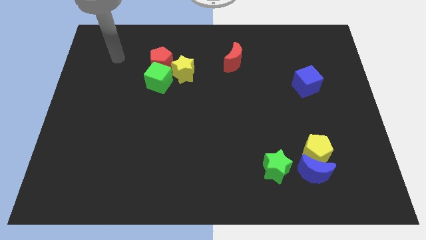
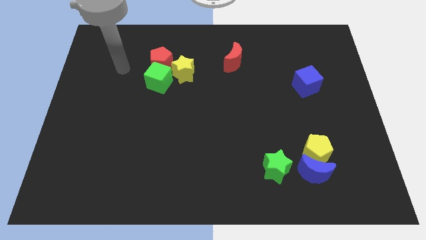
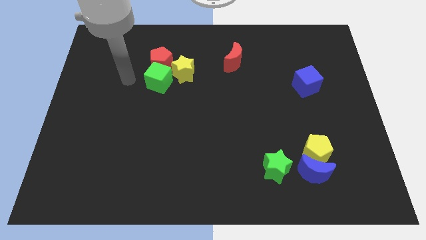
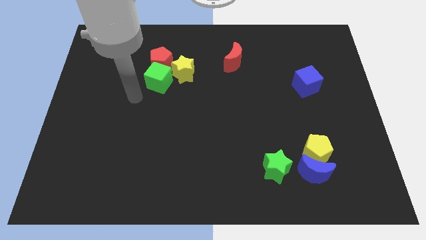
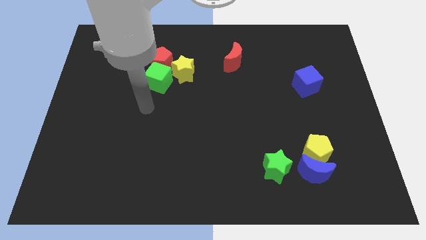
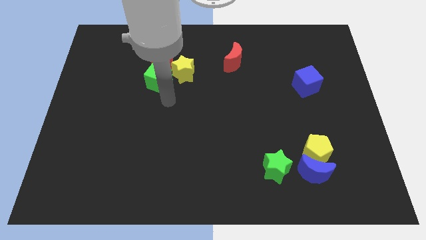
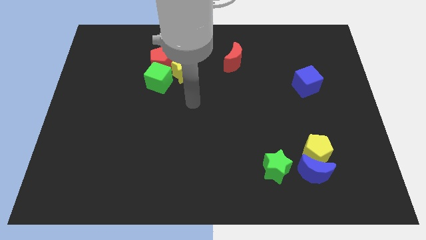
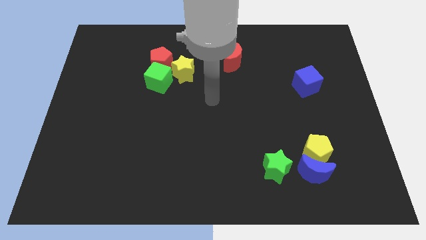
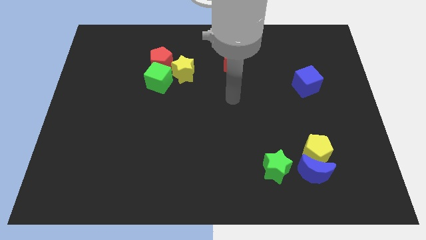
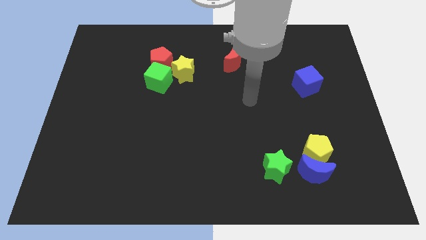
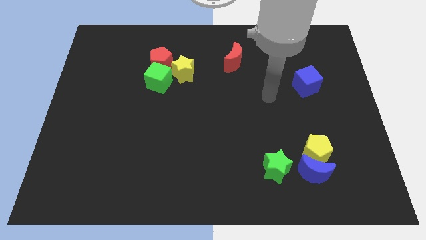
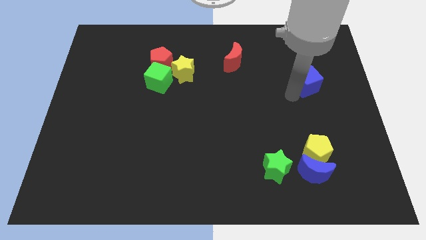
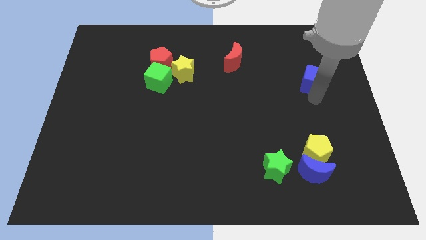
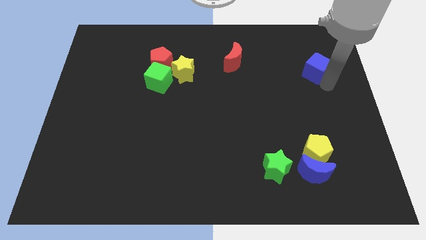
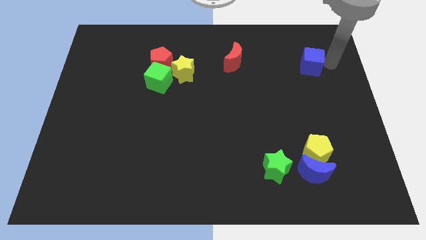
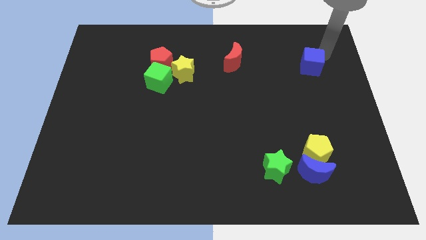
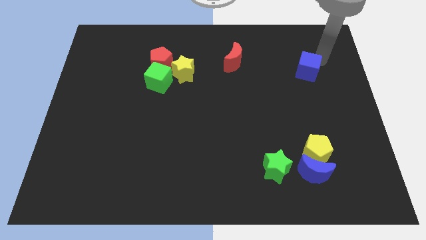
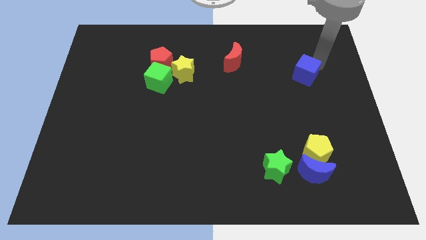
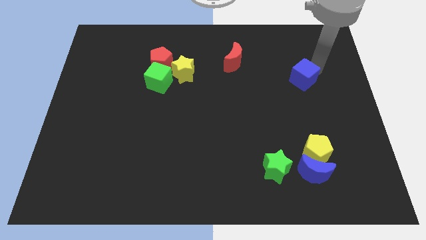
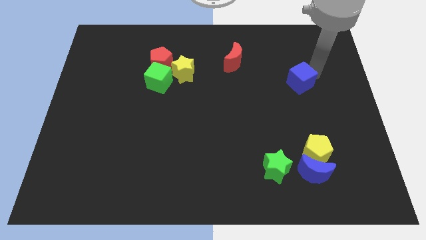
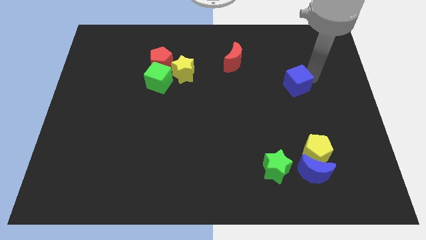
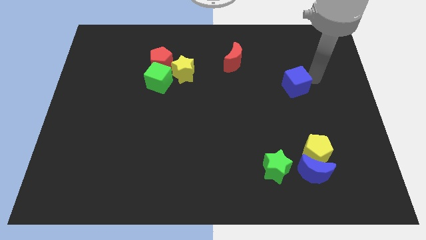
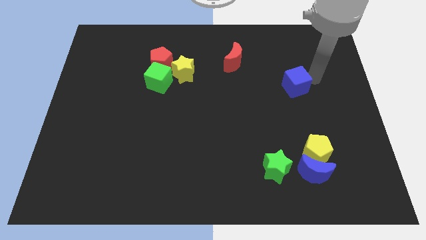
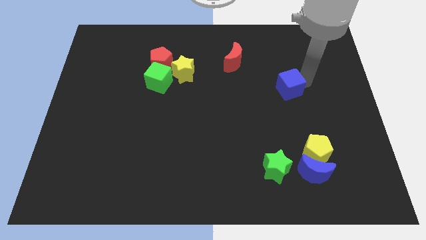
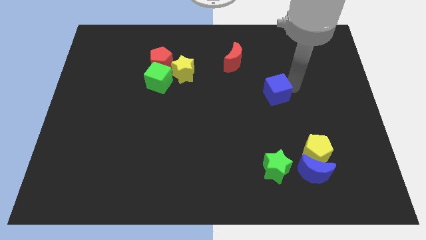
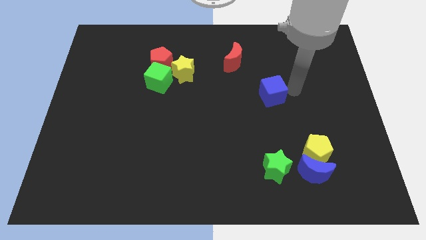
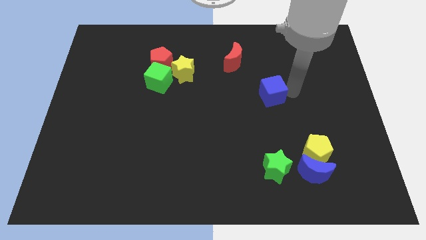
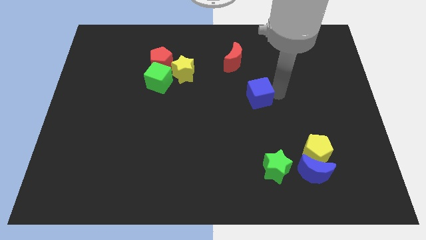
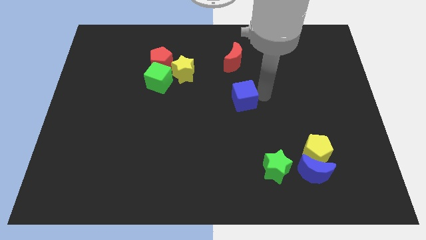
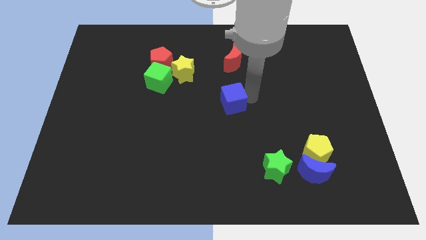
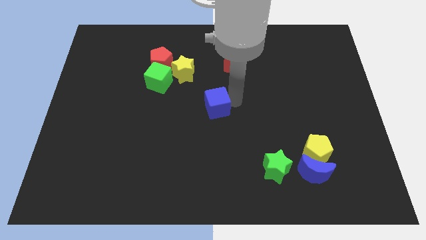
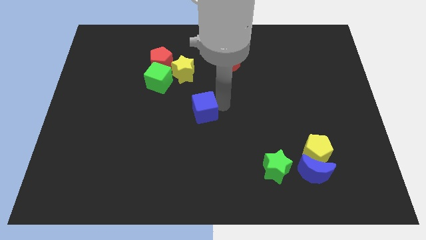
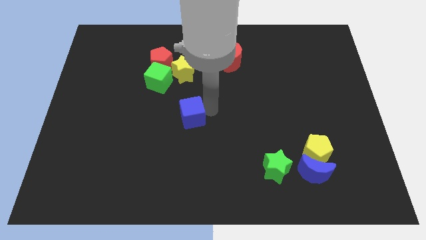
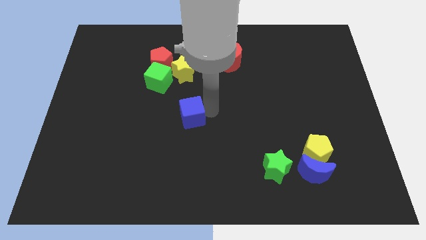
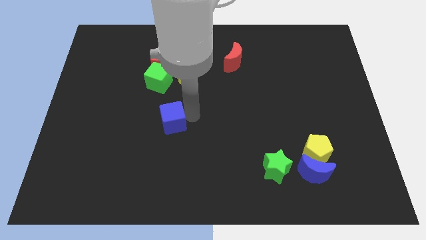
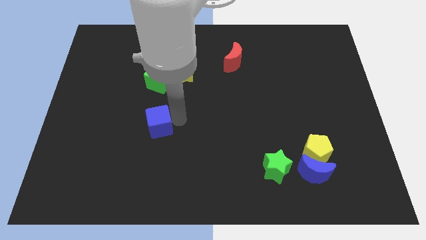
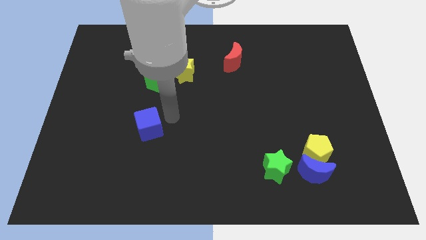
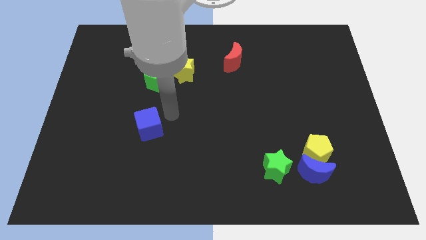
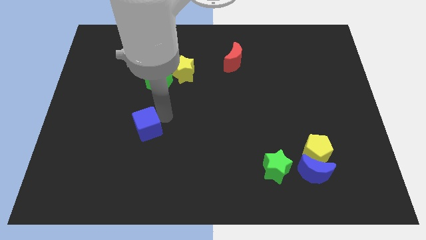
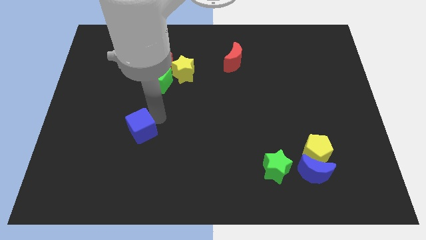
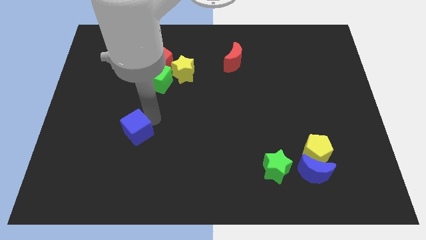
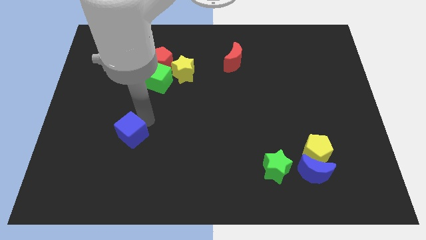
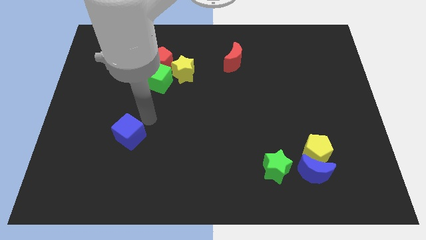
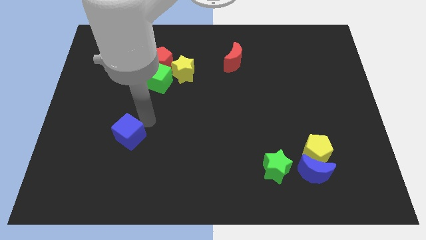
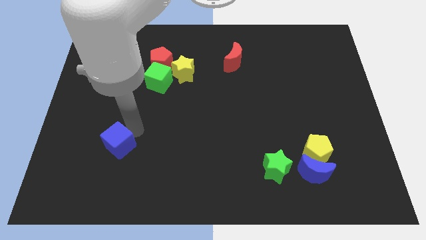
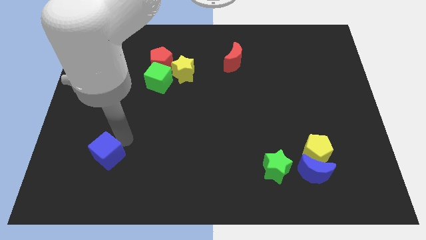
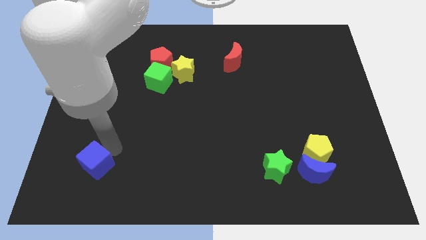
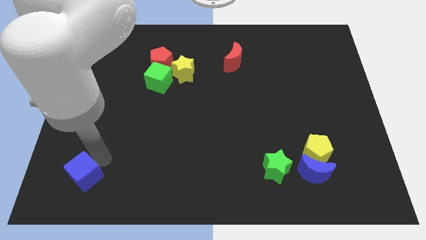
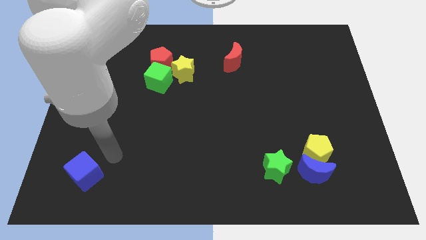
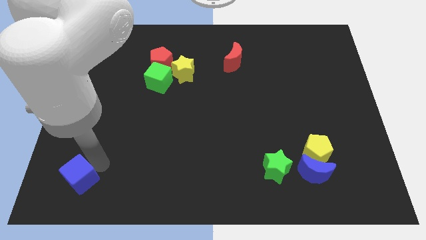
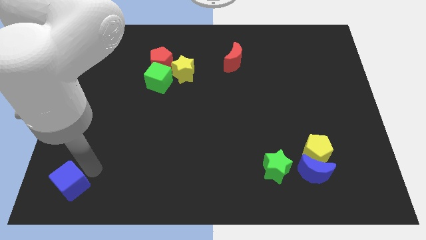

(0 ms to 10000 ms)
move the blue cube to the bottom left of the board

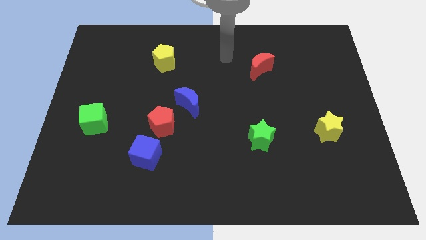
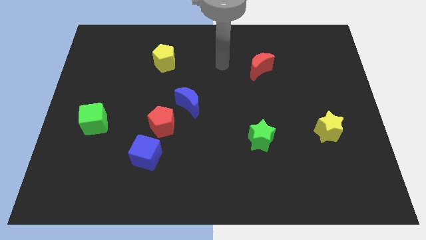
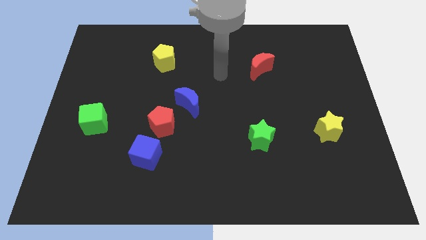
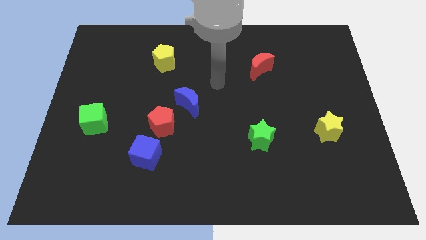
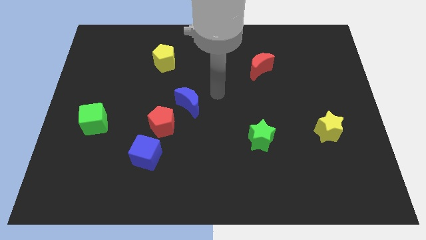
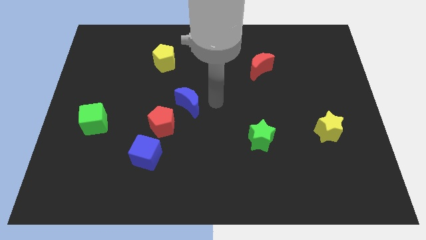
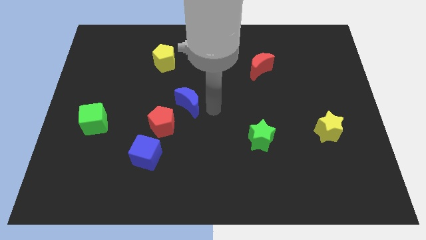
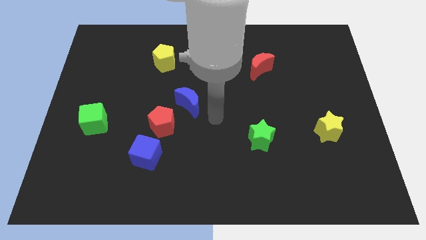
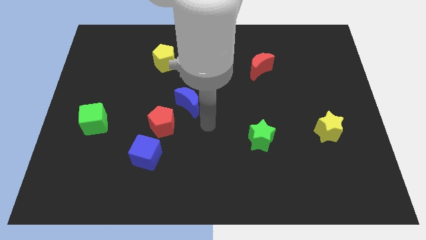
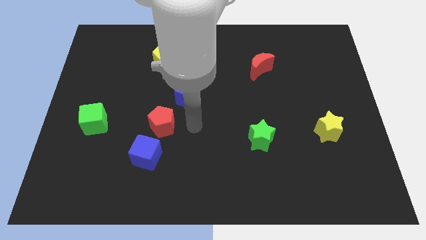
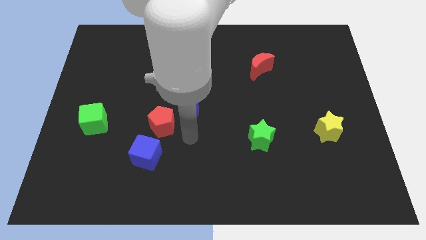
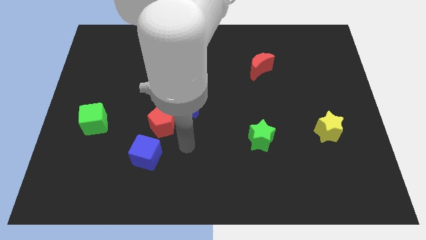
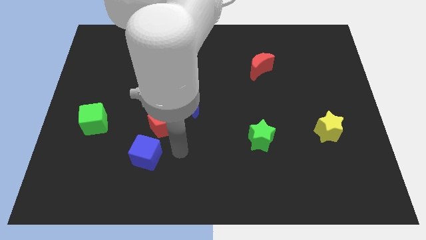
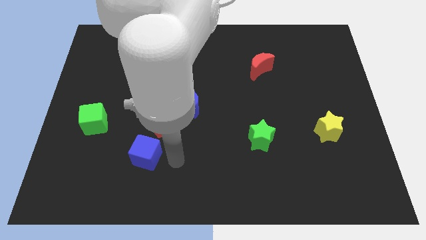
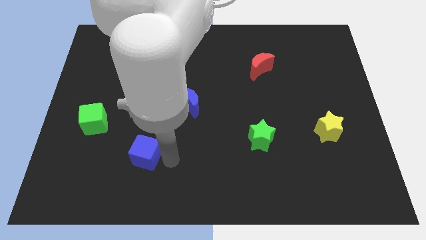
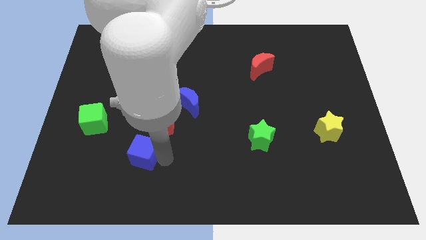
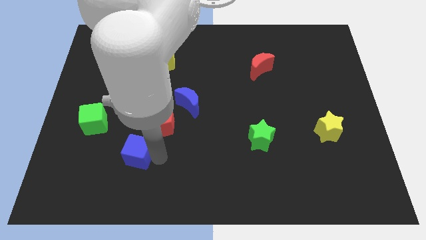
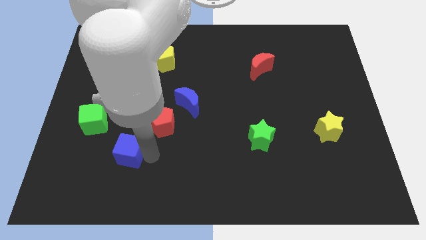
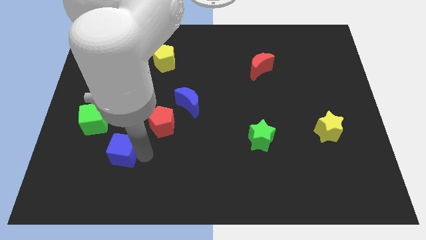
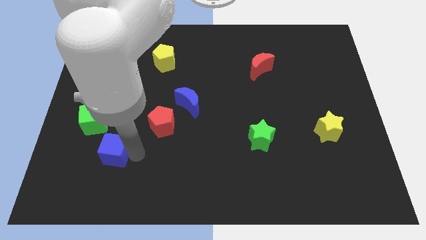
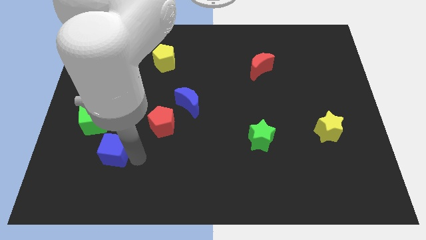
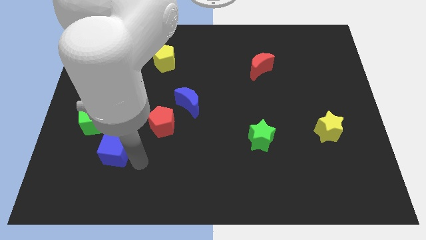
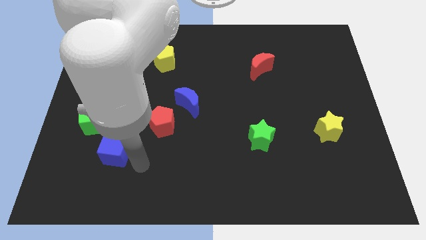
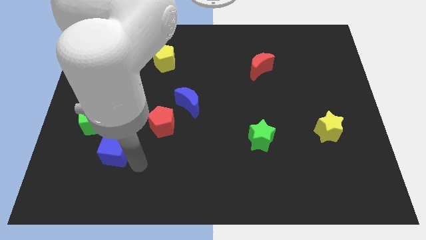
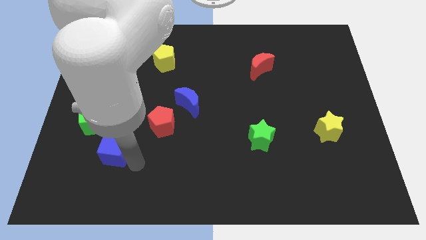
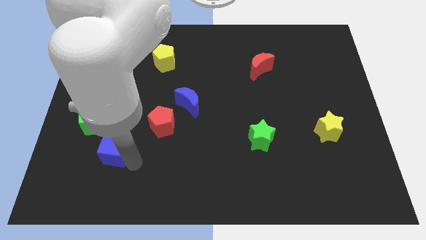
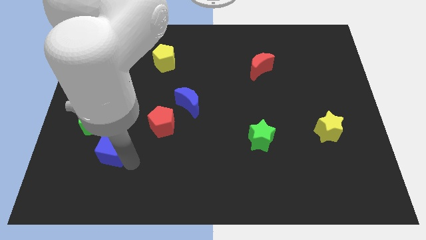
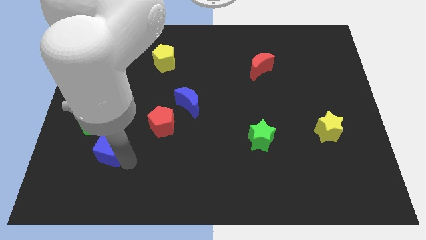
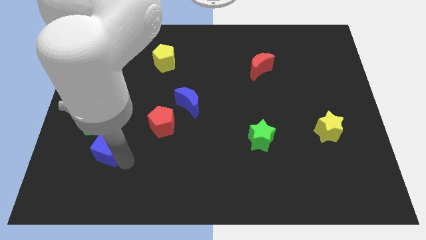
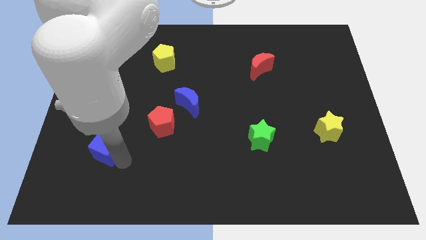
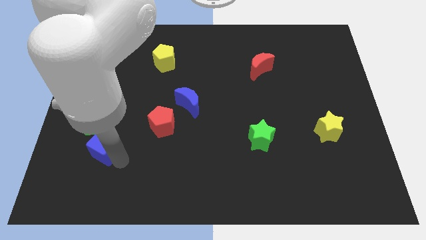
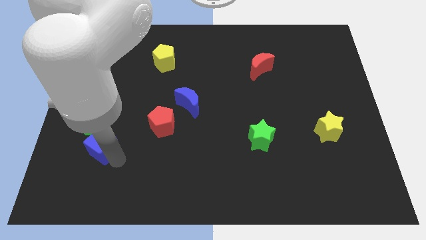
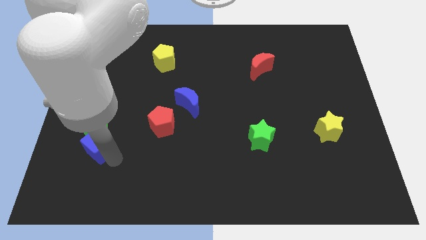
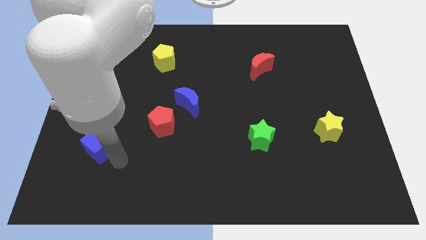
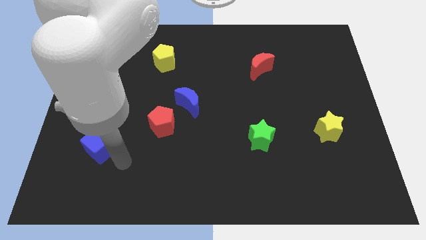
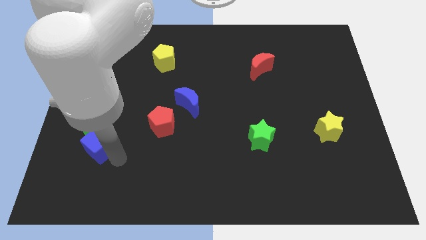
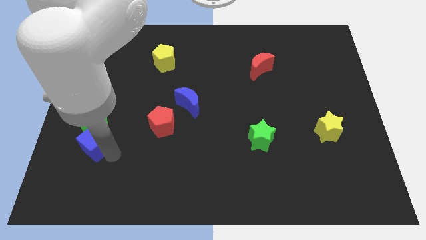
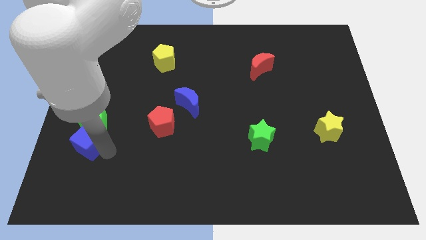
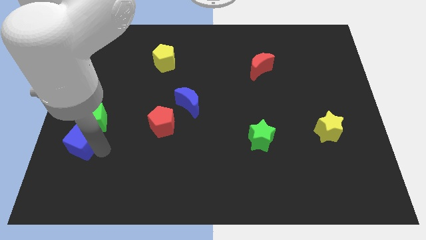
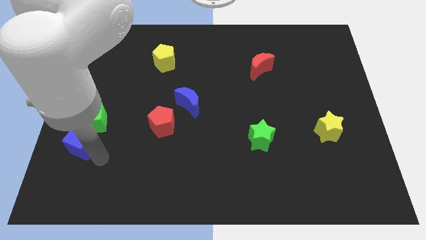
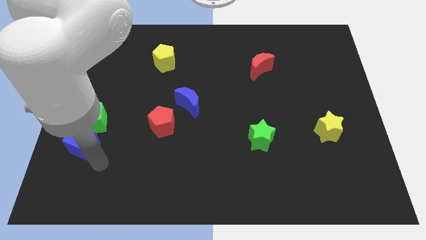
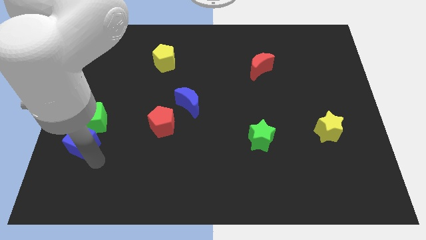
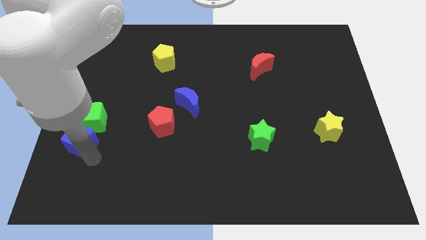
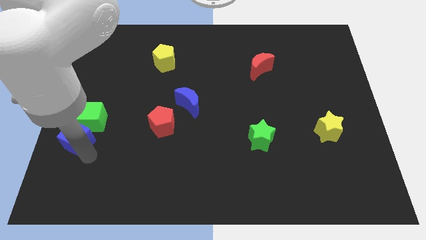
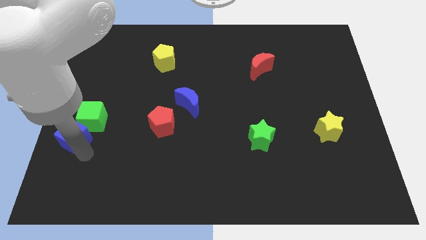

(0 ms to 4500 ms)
slide the blue cube to the left side
